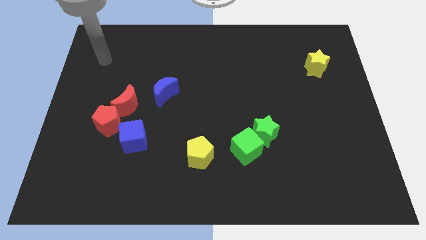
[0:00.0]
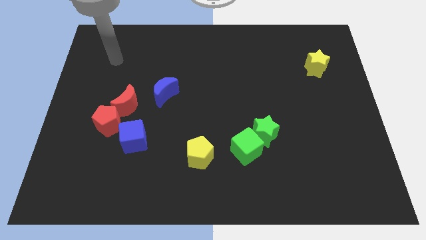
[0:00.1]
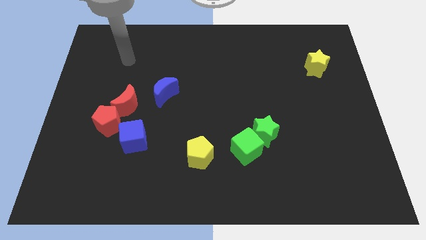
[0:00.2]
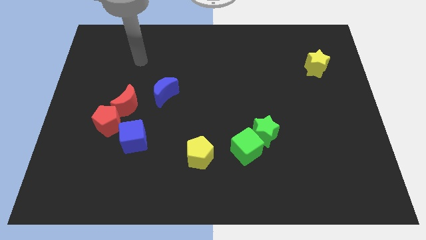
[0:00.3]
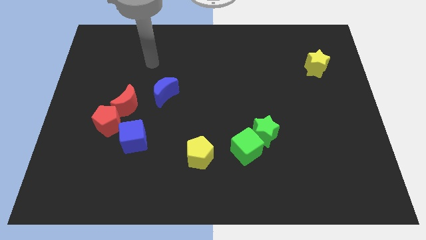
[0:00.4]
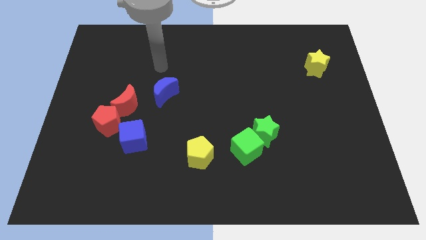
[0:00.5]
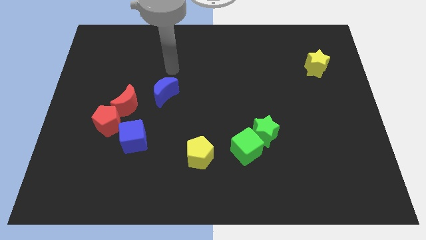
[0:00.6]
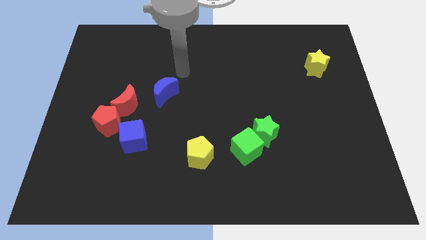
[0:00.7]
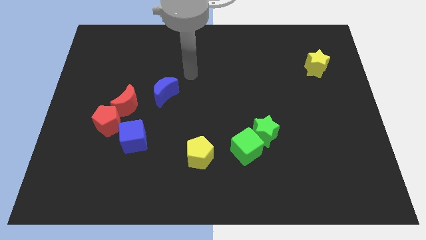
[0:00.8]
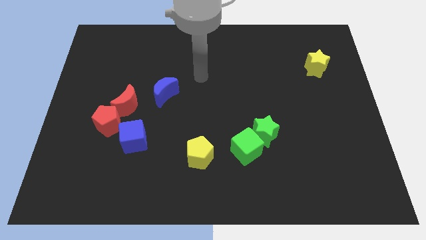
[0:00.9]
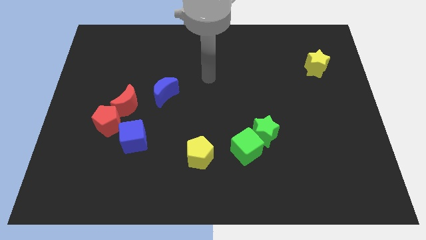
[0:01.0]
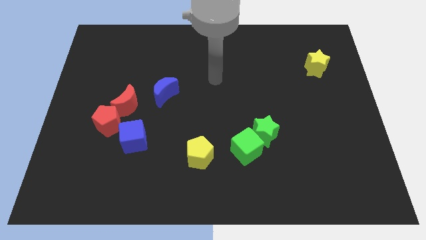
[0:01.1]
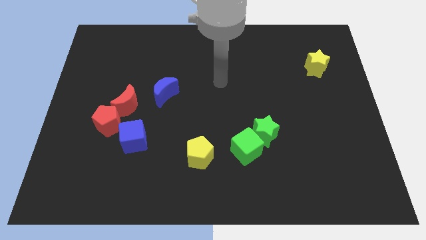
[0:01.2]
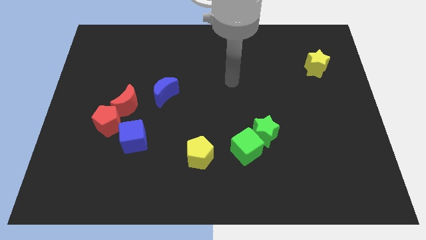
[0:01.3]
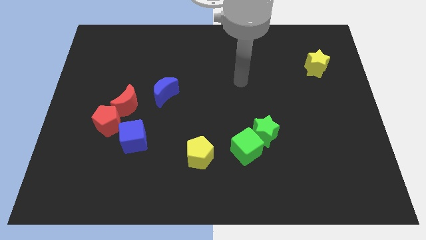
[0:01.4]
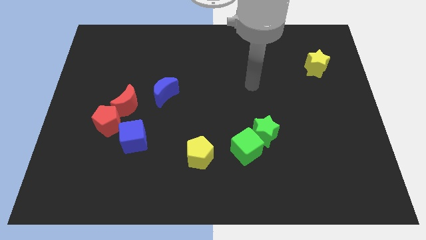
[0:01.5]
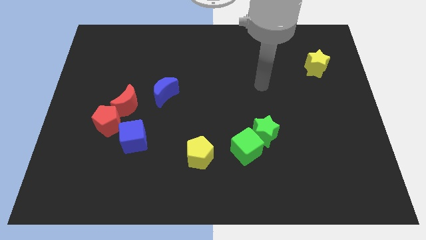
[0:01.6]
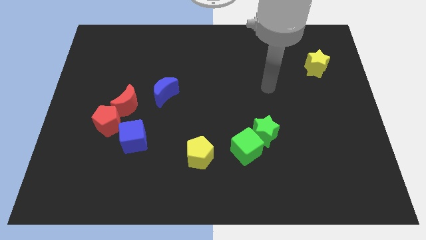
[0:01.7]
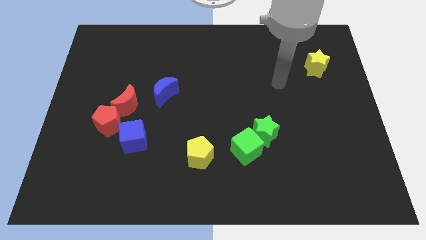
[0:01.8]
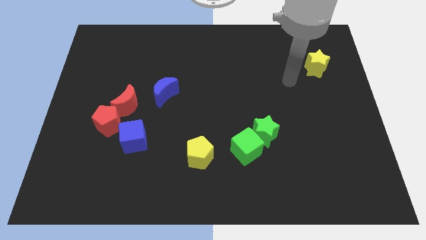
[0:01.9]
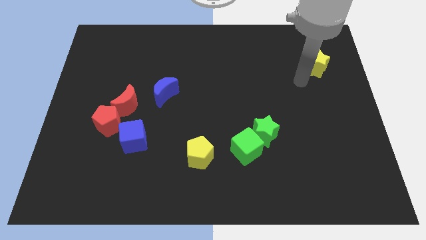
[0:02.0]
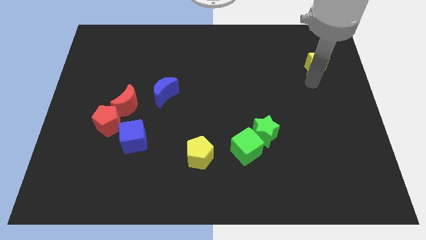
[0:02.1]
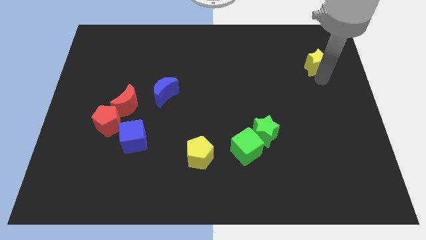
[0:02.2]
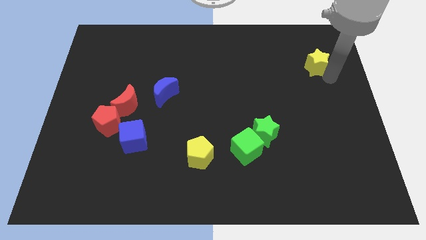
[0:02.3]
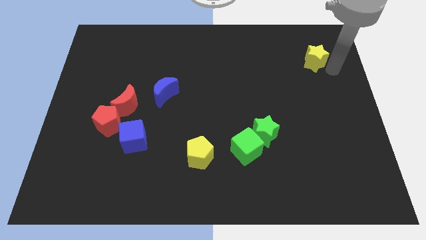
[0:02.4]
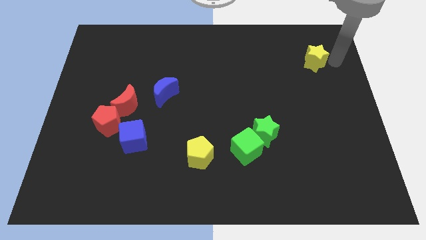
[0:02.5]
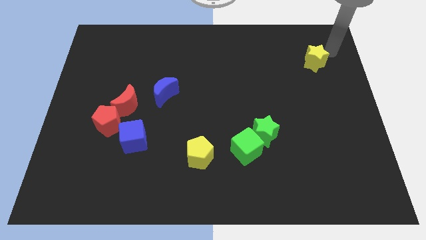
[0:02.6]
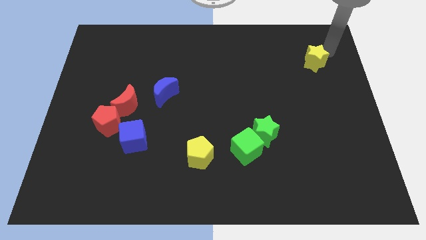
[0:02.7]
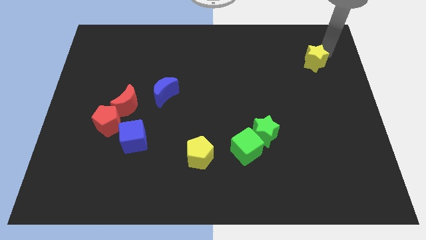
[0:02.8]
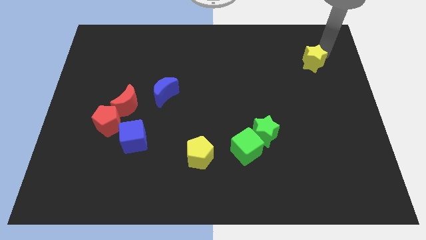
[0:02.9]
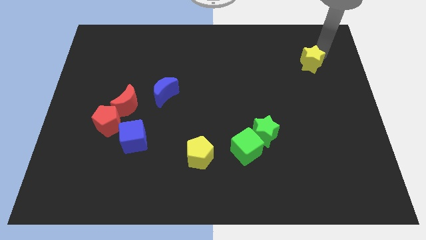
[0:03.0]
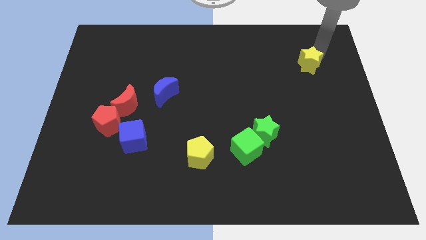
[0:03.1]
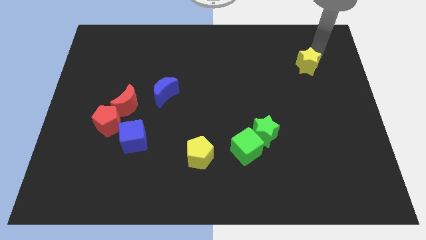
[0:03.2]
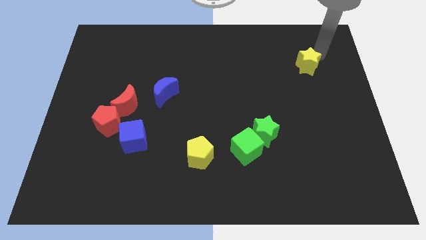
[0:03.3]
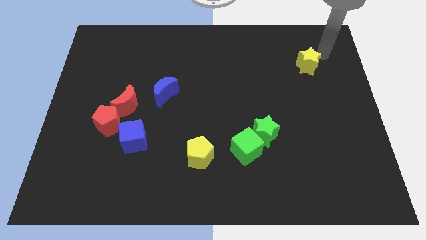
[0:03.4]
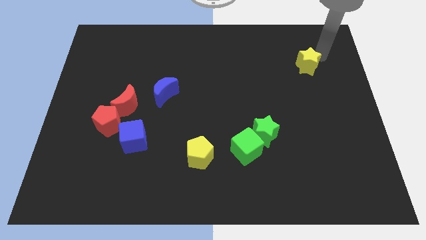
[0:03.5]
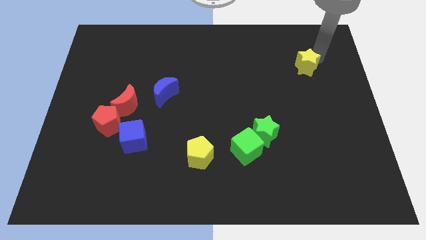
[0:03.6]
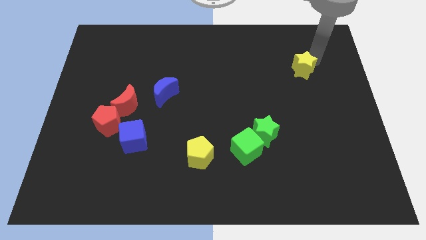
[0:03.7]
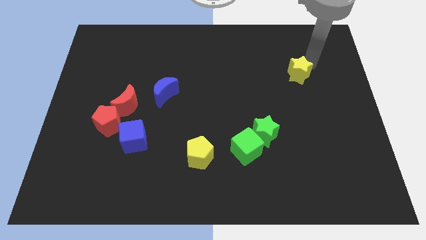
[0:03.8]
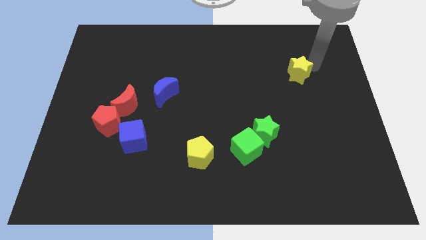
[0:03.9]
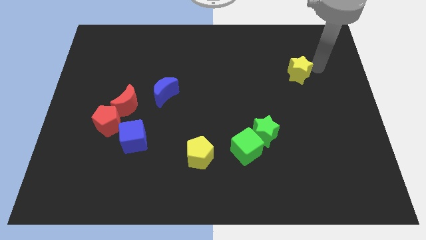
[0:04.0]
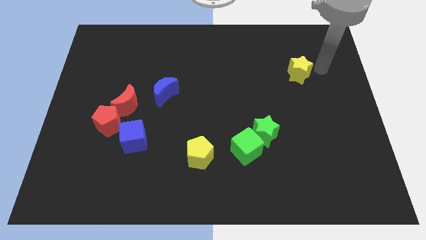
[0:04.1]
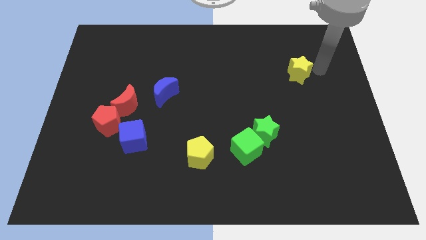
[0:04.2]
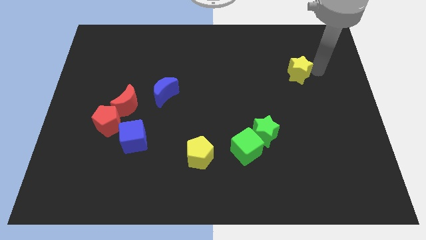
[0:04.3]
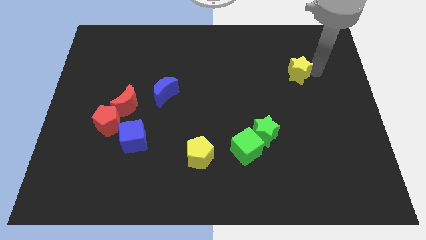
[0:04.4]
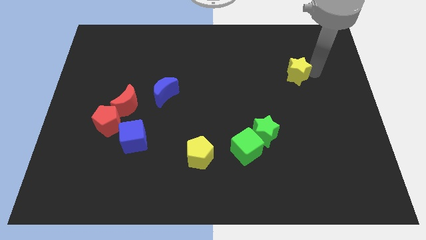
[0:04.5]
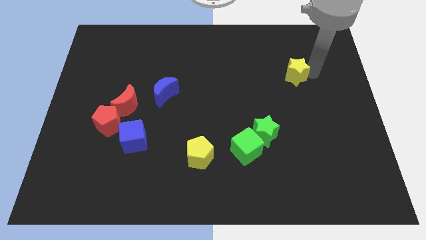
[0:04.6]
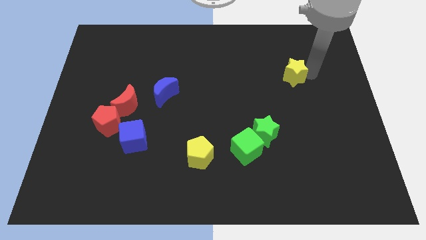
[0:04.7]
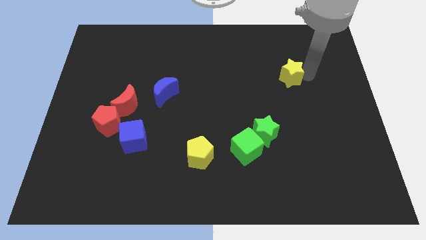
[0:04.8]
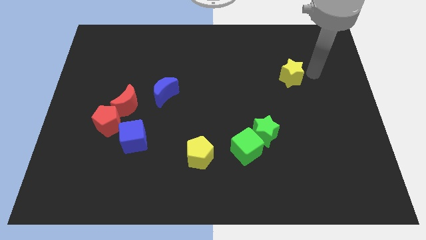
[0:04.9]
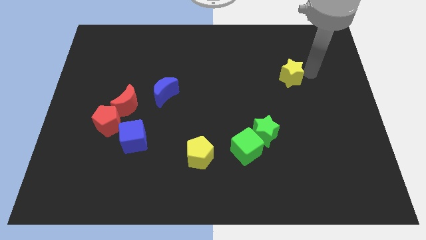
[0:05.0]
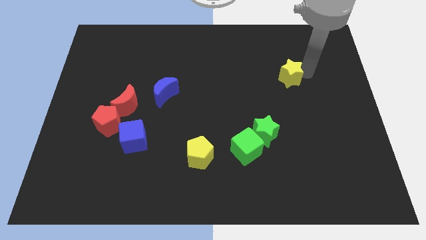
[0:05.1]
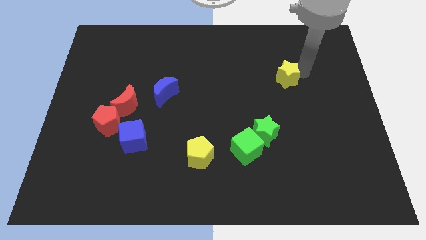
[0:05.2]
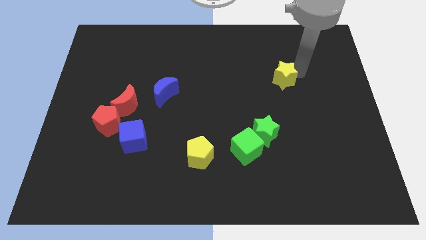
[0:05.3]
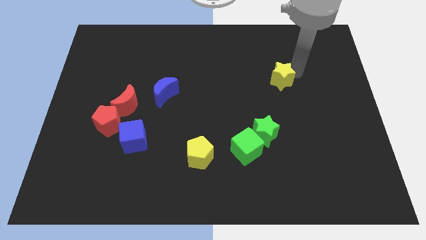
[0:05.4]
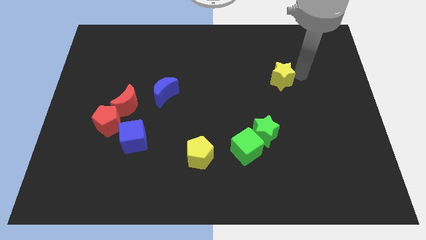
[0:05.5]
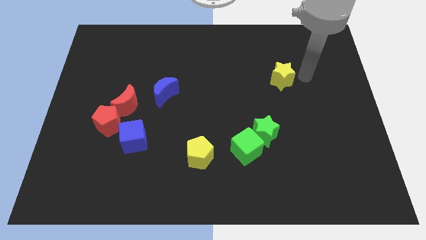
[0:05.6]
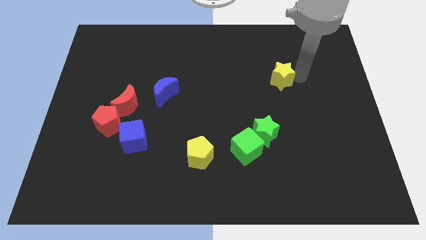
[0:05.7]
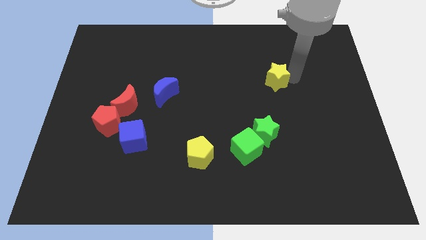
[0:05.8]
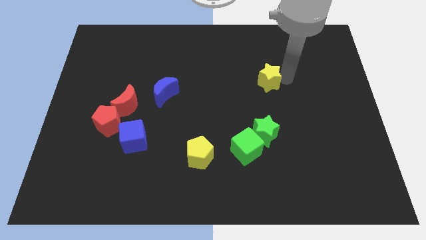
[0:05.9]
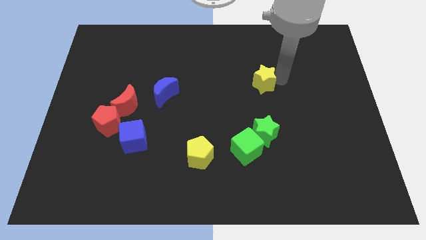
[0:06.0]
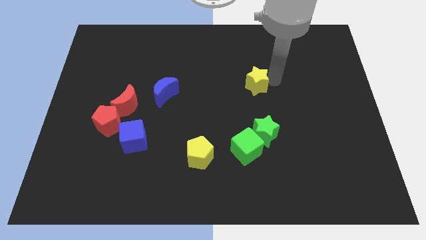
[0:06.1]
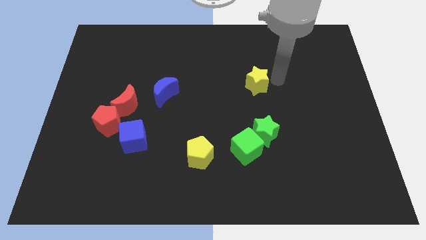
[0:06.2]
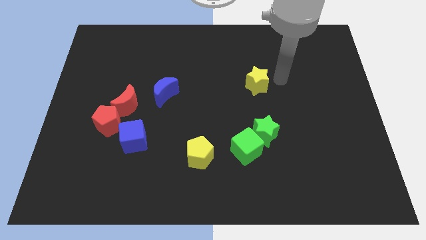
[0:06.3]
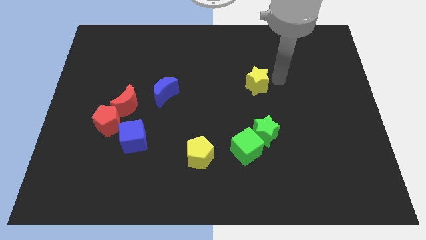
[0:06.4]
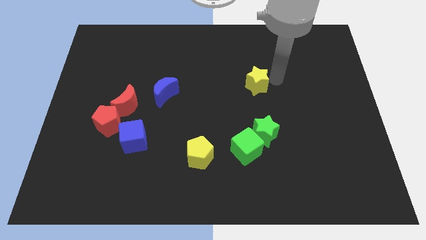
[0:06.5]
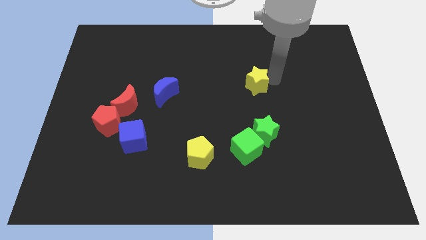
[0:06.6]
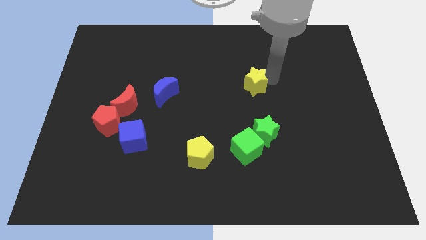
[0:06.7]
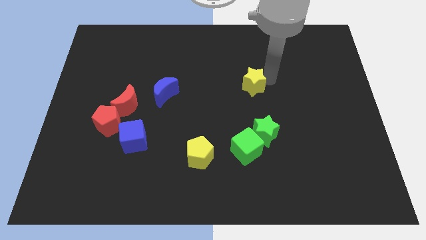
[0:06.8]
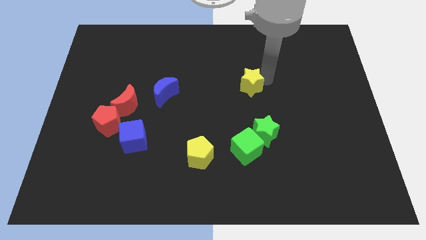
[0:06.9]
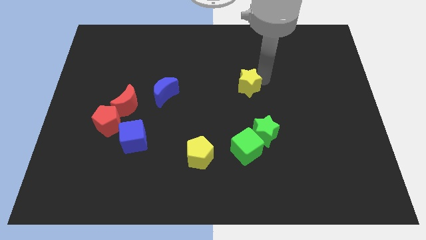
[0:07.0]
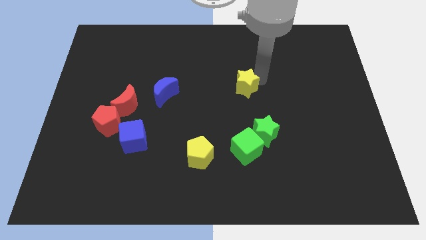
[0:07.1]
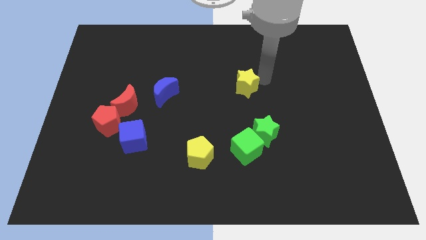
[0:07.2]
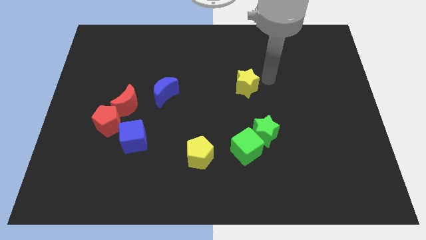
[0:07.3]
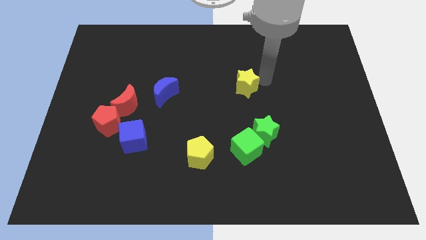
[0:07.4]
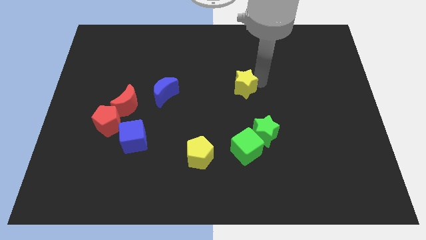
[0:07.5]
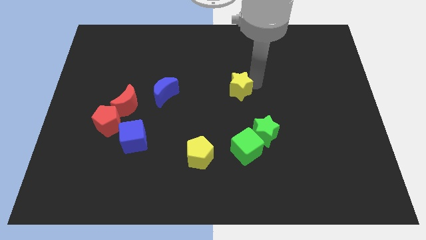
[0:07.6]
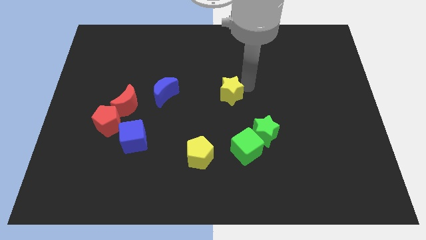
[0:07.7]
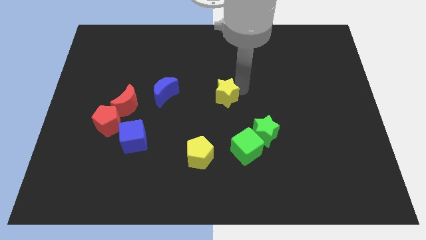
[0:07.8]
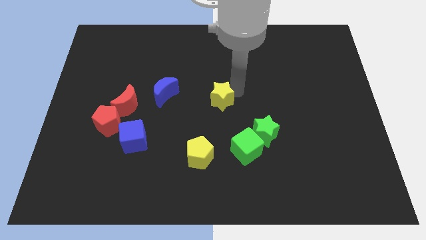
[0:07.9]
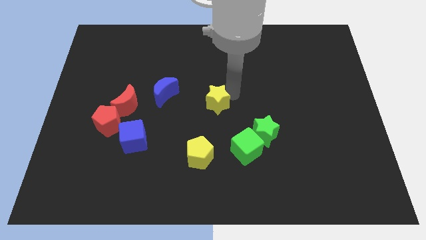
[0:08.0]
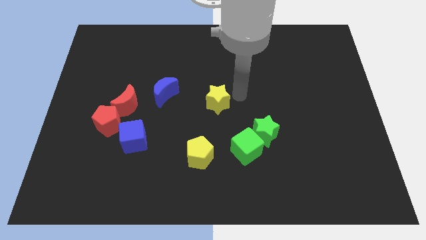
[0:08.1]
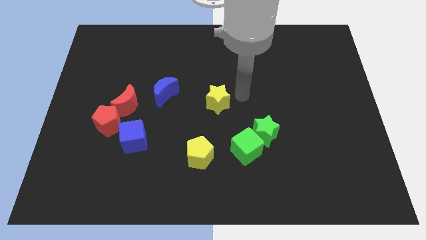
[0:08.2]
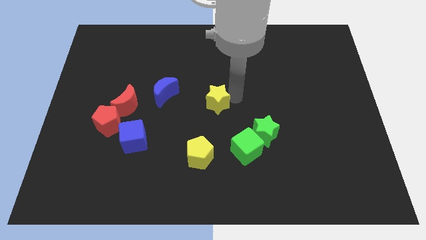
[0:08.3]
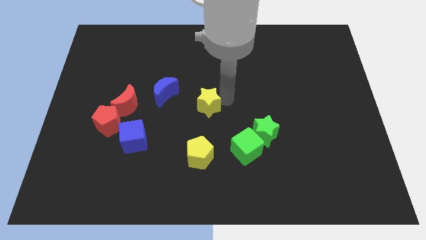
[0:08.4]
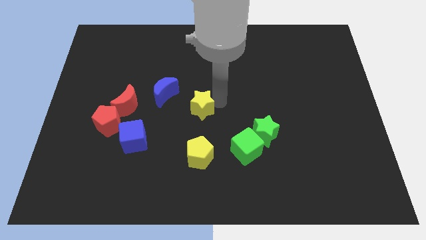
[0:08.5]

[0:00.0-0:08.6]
move the yellow star to the bottom right side of the blue moon
